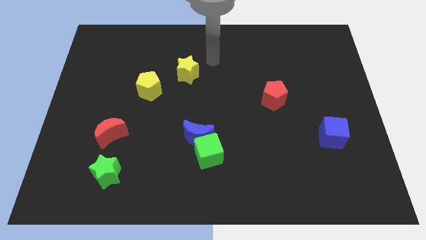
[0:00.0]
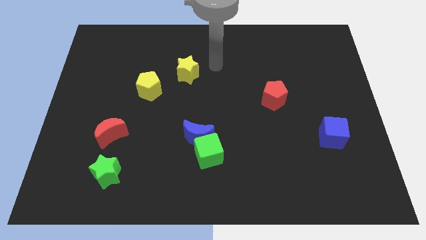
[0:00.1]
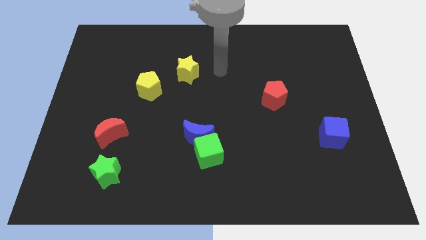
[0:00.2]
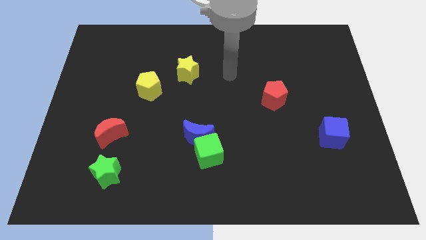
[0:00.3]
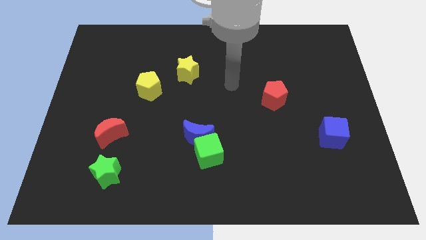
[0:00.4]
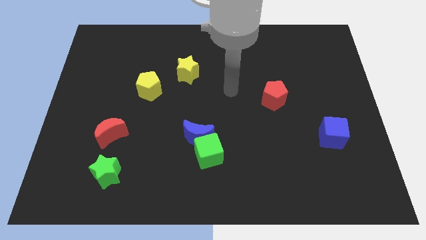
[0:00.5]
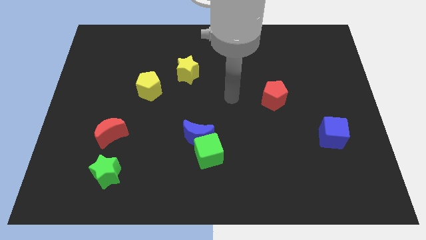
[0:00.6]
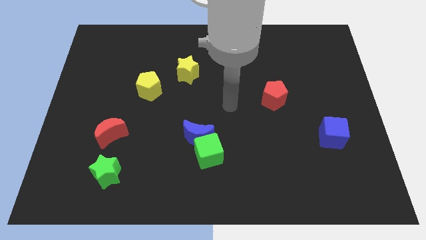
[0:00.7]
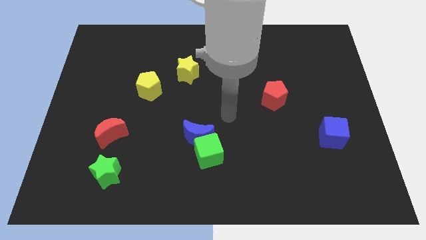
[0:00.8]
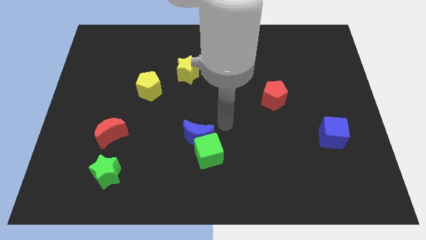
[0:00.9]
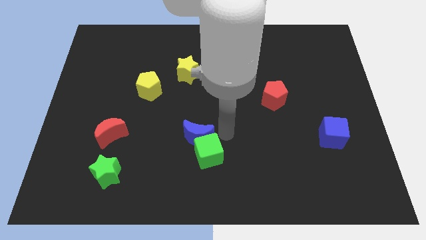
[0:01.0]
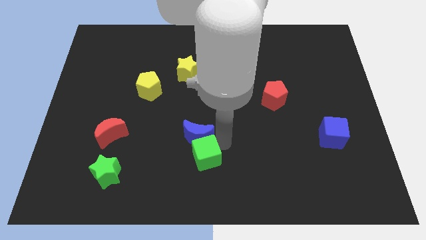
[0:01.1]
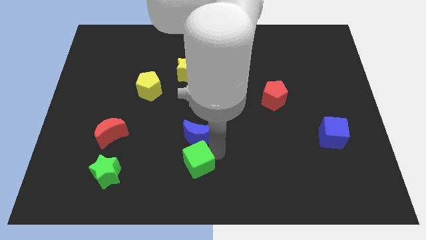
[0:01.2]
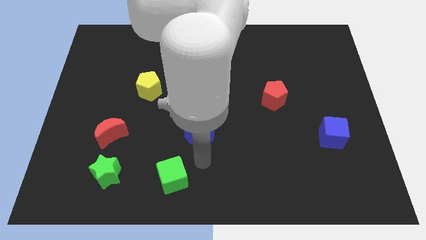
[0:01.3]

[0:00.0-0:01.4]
move the blue moon away from the green cube

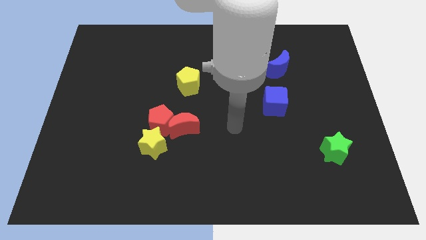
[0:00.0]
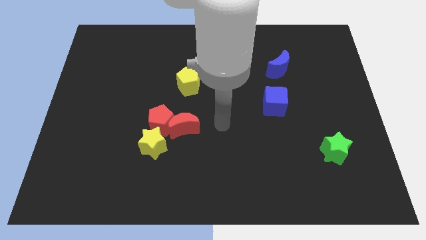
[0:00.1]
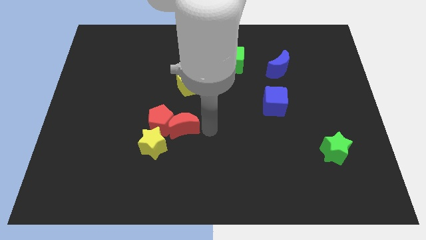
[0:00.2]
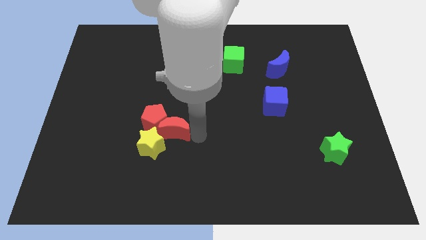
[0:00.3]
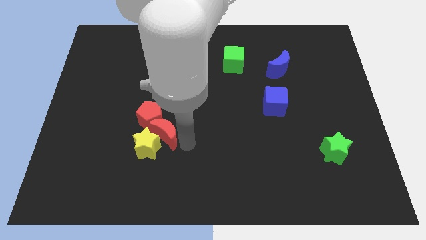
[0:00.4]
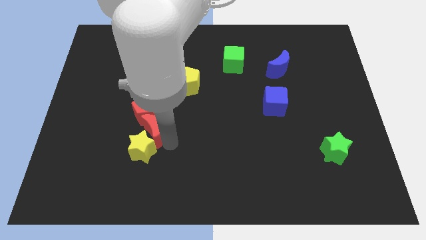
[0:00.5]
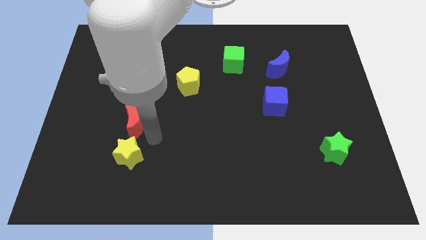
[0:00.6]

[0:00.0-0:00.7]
move the red pentagon away from the red moon and yellow star

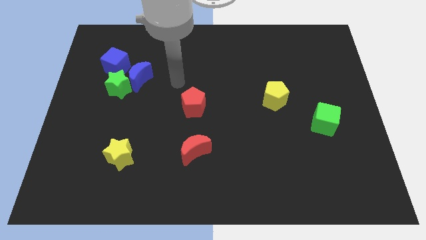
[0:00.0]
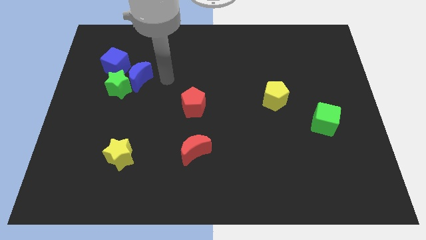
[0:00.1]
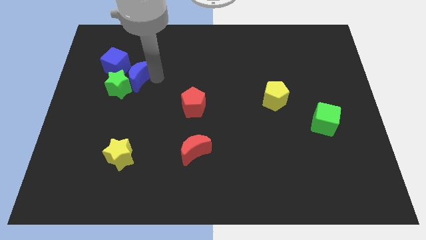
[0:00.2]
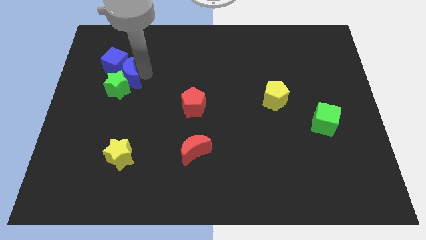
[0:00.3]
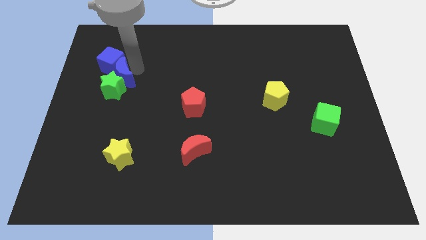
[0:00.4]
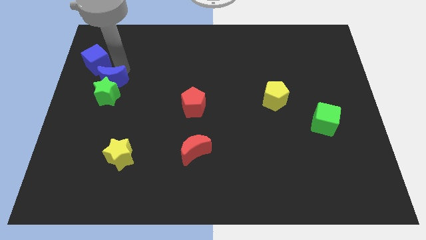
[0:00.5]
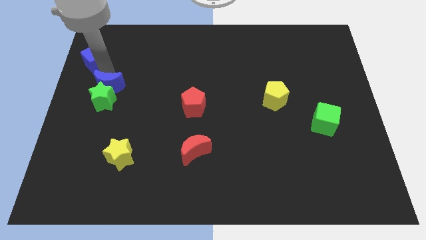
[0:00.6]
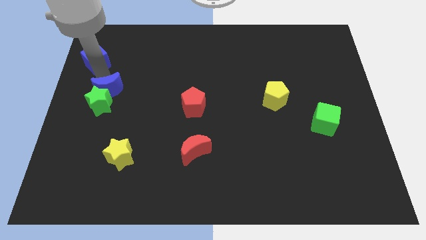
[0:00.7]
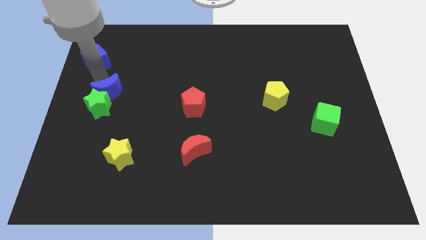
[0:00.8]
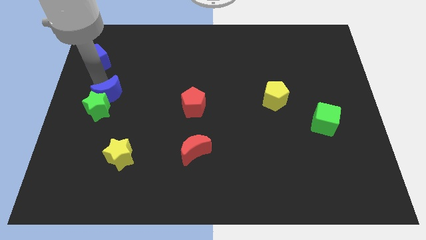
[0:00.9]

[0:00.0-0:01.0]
separate the green star from the blue moon and blue cube

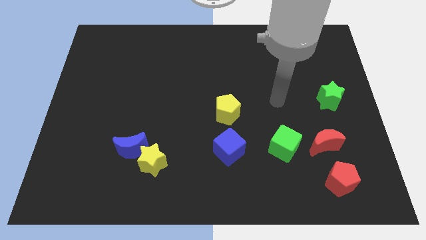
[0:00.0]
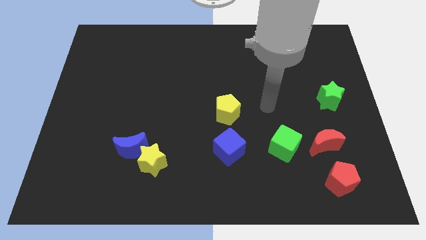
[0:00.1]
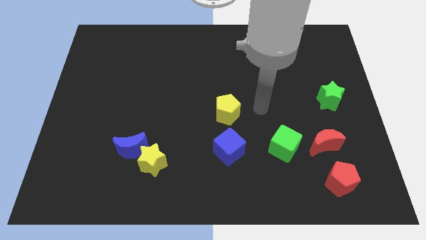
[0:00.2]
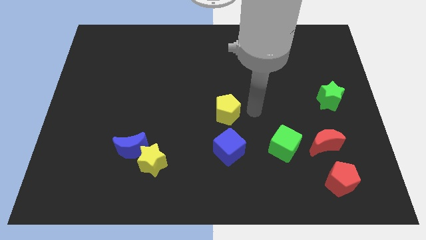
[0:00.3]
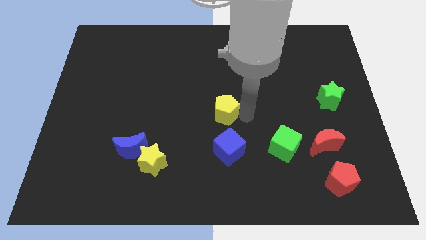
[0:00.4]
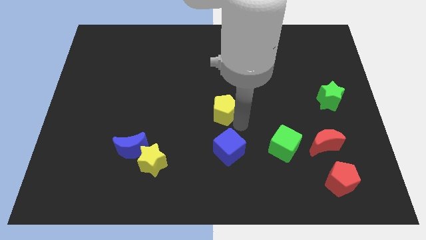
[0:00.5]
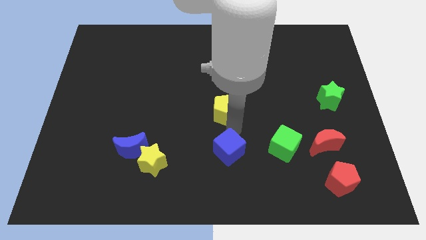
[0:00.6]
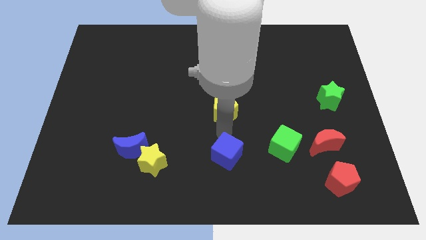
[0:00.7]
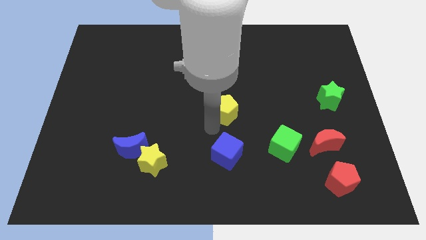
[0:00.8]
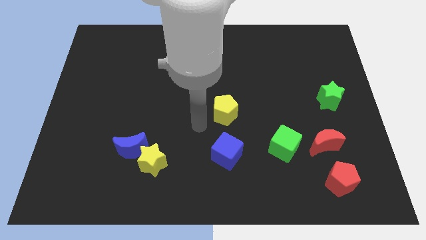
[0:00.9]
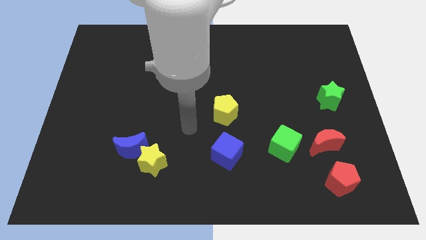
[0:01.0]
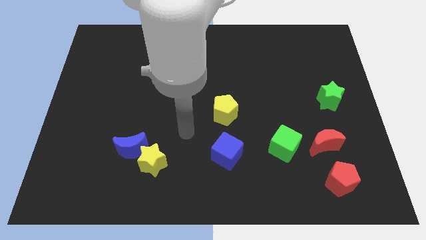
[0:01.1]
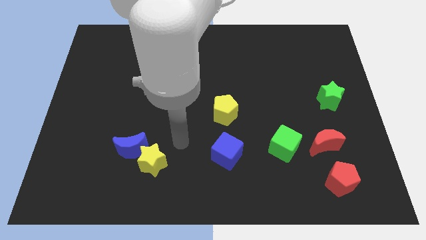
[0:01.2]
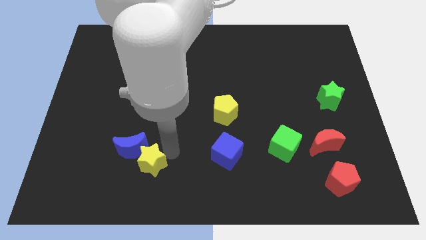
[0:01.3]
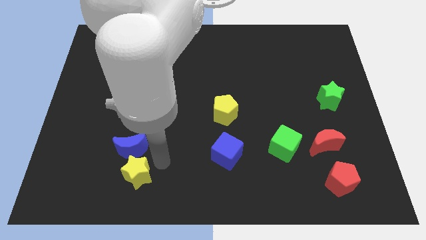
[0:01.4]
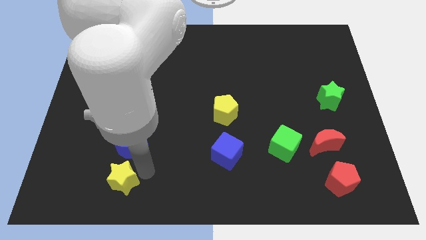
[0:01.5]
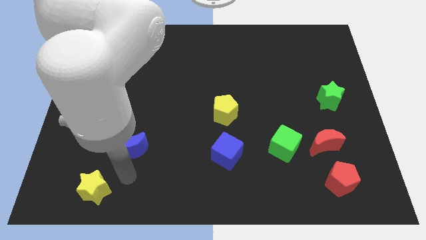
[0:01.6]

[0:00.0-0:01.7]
separate the blue moon from the yellow star

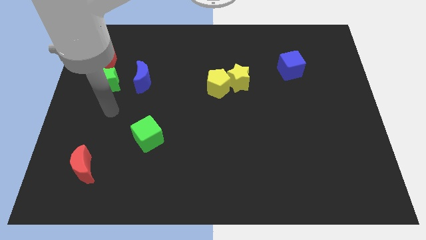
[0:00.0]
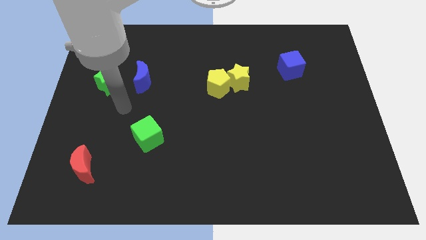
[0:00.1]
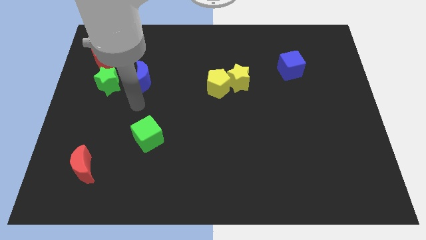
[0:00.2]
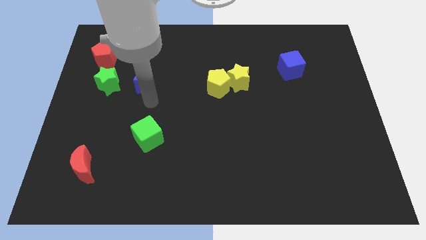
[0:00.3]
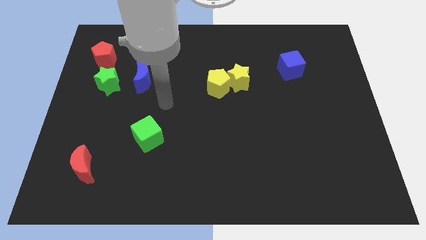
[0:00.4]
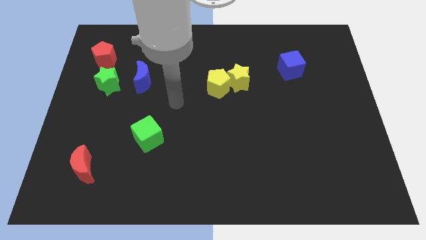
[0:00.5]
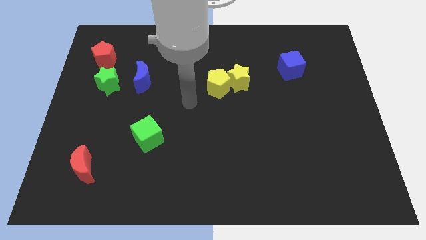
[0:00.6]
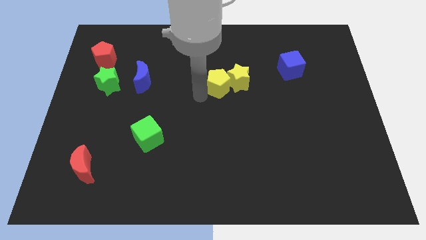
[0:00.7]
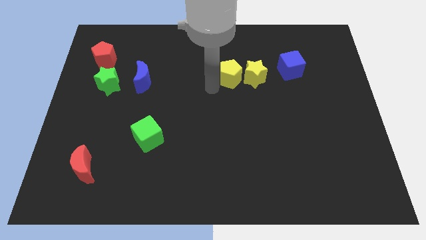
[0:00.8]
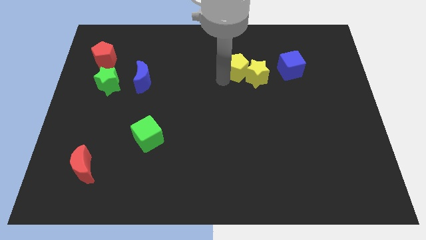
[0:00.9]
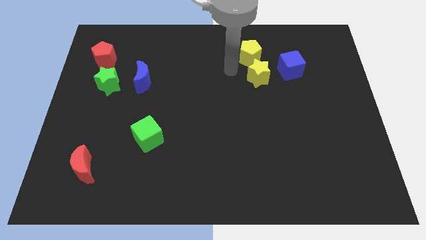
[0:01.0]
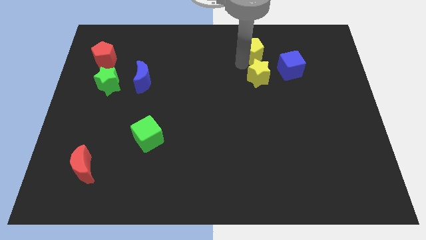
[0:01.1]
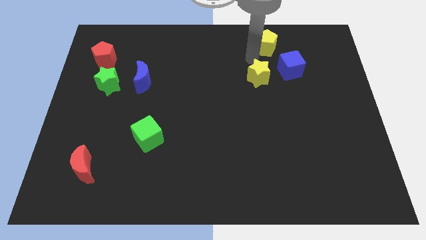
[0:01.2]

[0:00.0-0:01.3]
move the yellow star away from the yellow pentagon

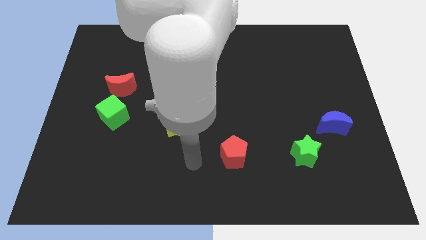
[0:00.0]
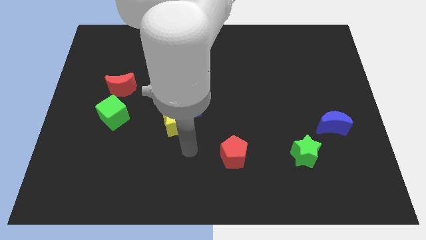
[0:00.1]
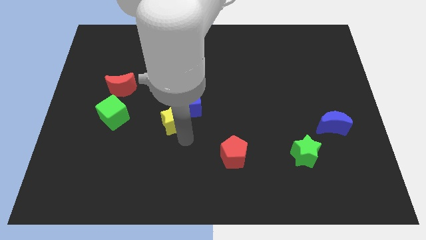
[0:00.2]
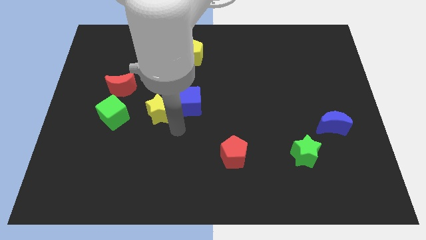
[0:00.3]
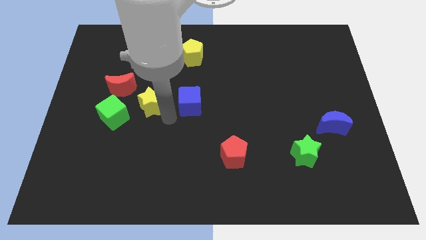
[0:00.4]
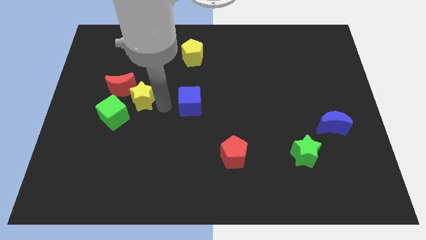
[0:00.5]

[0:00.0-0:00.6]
move the blue cube away from the yellow star

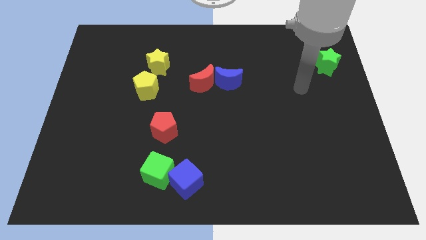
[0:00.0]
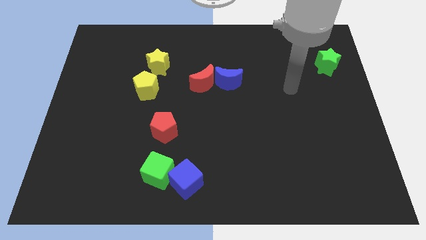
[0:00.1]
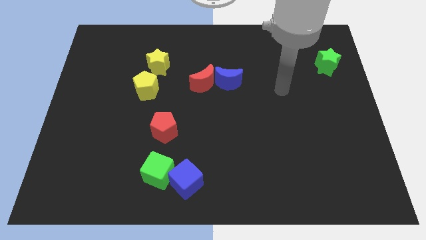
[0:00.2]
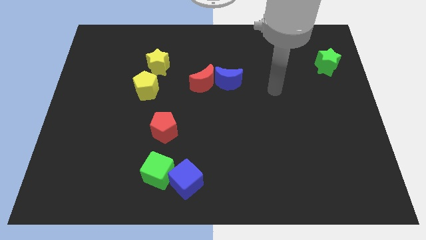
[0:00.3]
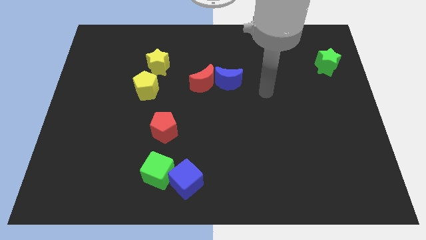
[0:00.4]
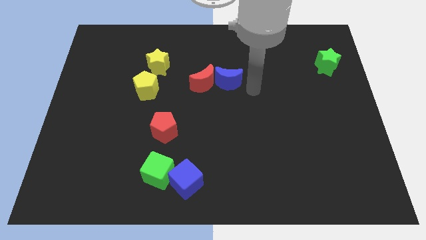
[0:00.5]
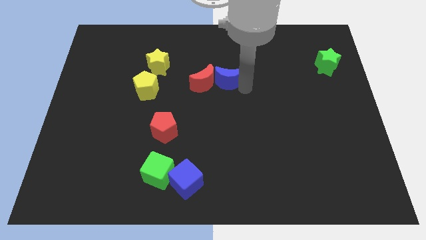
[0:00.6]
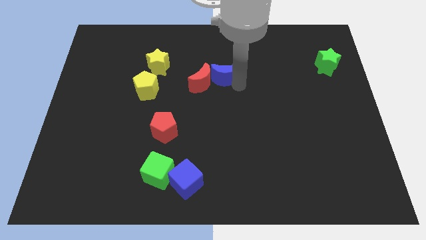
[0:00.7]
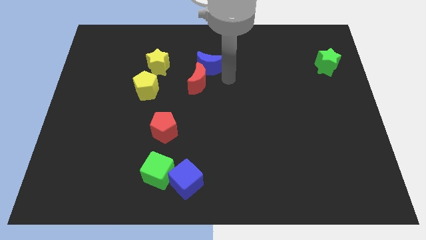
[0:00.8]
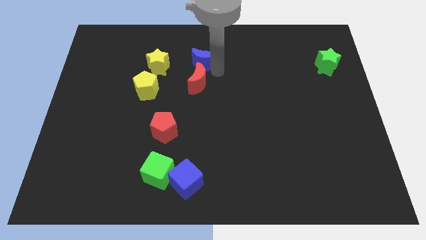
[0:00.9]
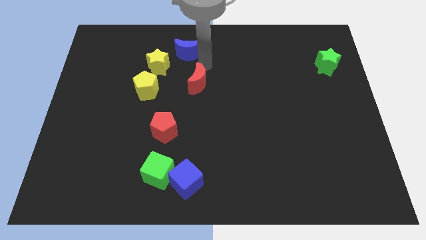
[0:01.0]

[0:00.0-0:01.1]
separate the red moon from the blue moon

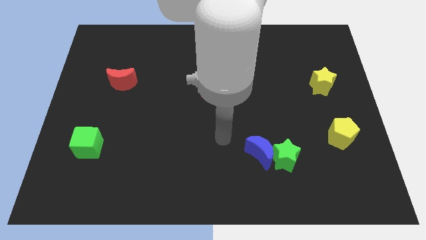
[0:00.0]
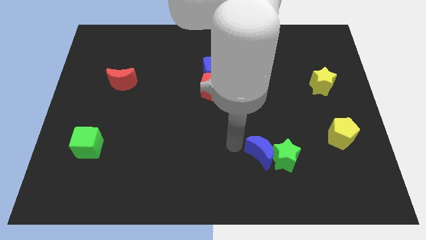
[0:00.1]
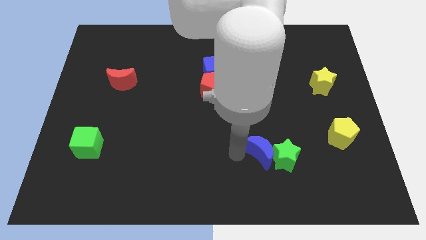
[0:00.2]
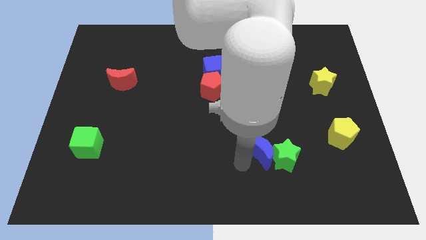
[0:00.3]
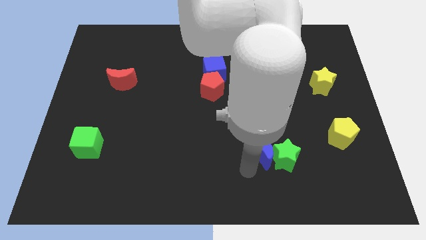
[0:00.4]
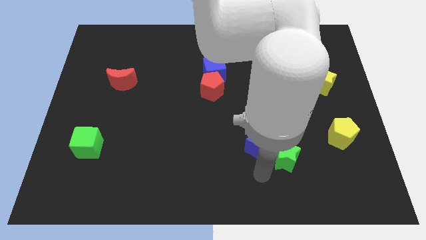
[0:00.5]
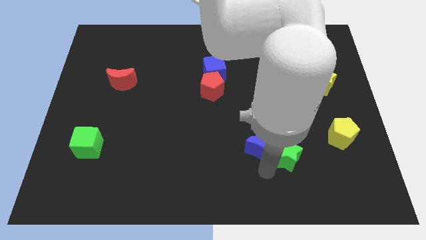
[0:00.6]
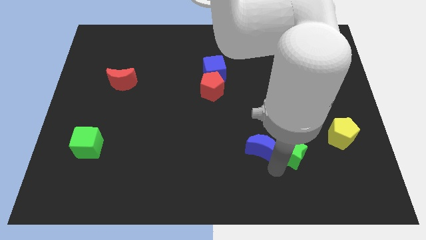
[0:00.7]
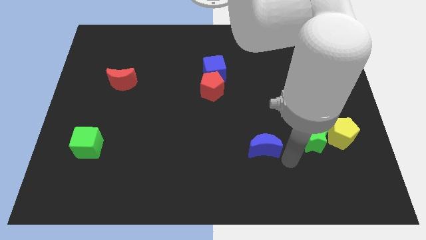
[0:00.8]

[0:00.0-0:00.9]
move the blue moon away from the green star

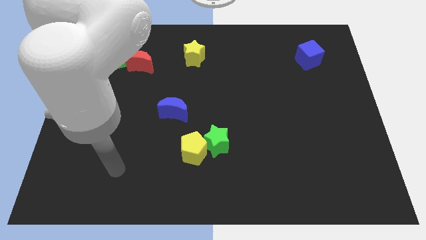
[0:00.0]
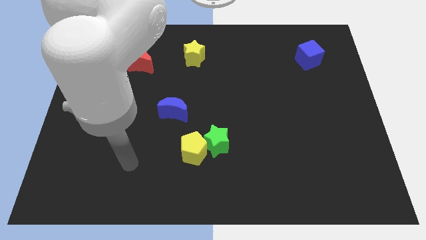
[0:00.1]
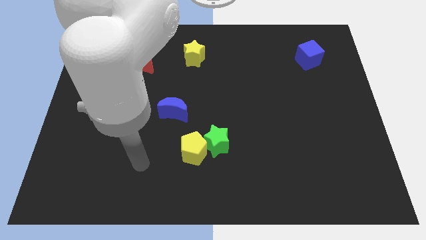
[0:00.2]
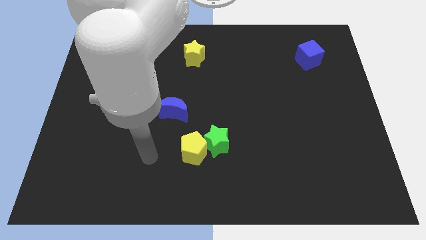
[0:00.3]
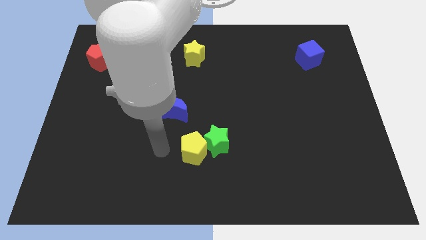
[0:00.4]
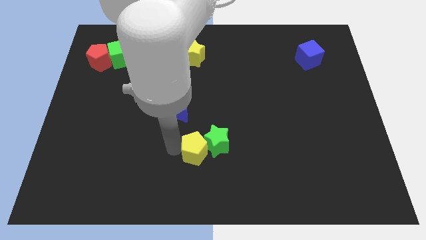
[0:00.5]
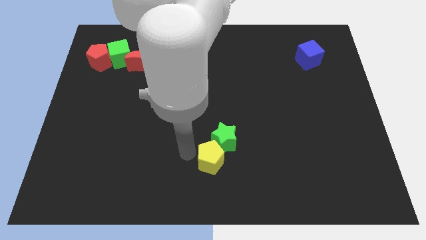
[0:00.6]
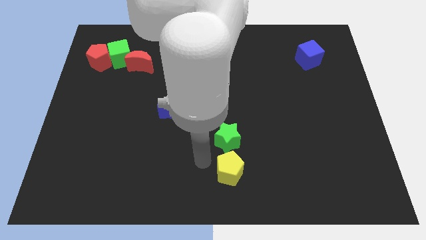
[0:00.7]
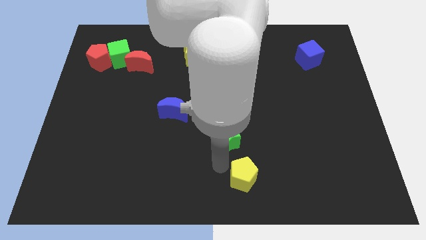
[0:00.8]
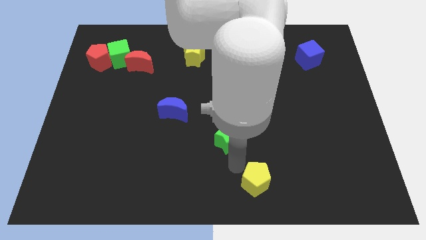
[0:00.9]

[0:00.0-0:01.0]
separate the green star from the yellow pentagon
